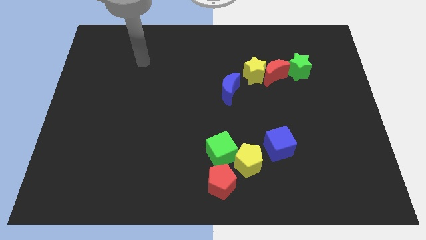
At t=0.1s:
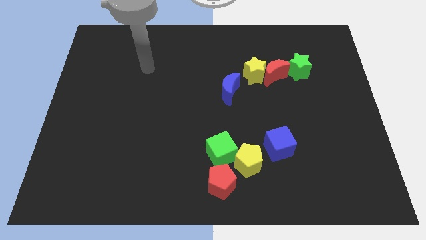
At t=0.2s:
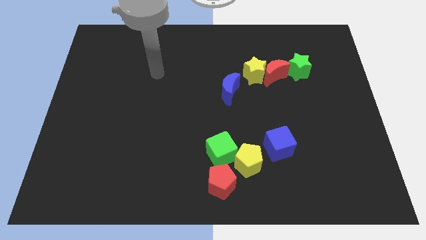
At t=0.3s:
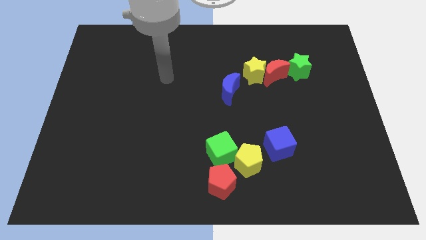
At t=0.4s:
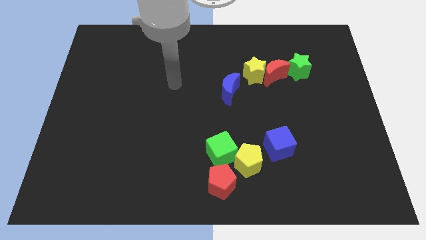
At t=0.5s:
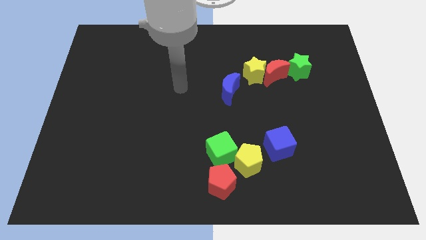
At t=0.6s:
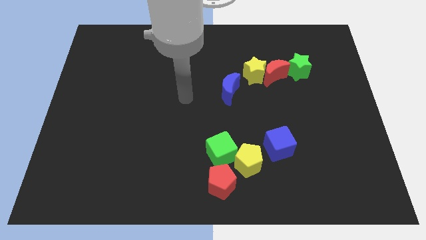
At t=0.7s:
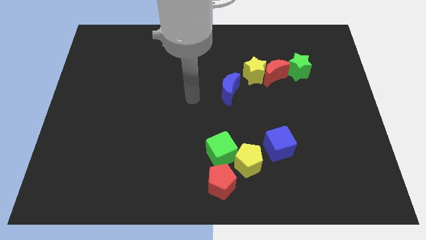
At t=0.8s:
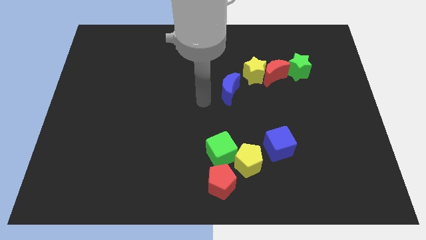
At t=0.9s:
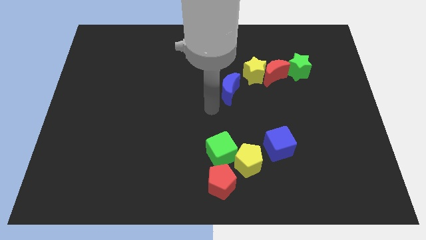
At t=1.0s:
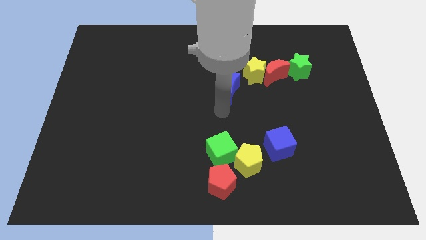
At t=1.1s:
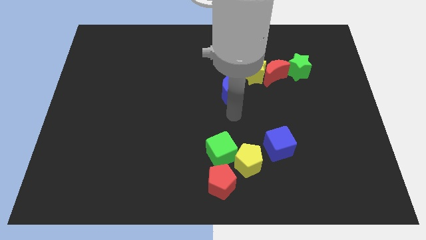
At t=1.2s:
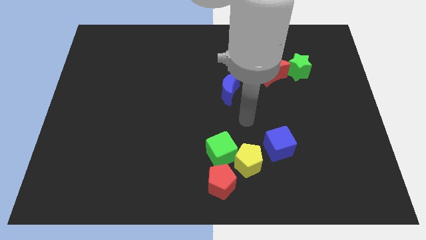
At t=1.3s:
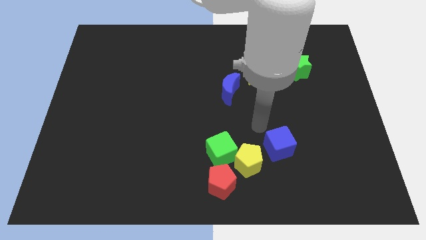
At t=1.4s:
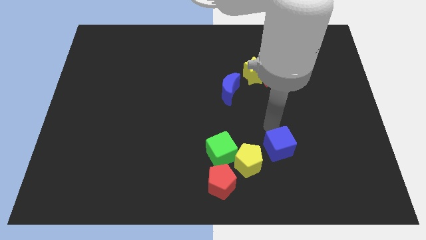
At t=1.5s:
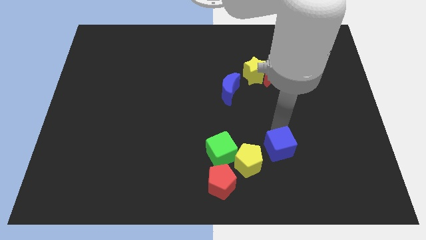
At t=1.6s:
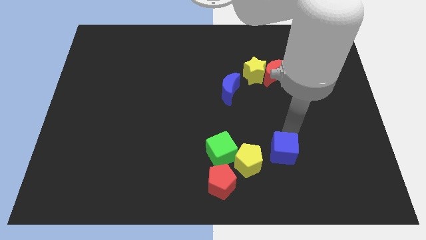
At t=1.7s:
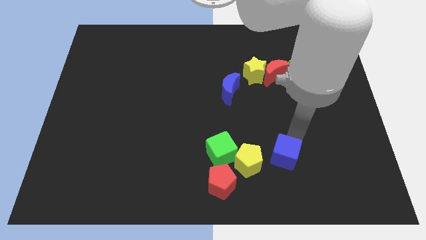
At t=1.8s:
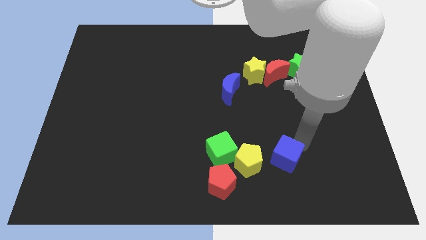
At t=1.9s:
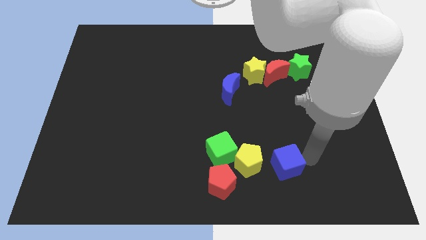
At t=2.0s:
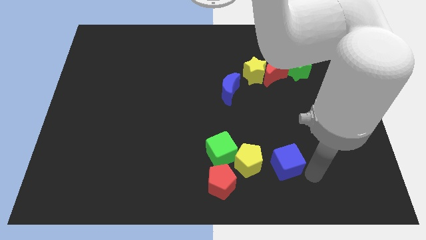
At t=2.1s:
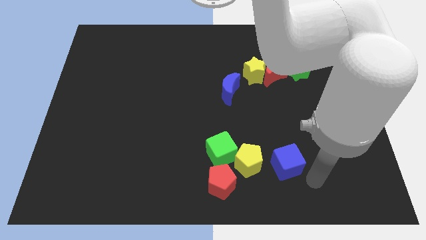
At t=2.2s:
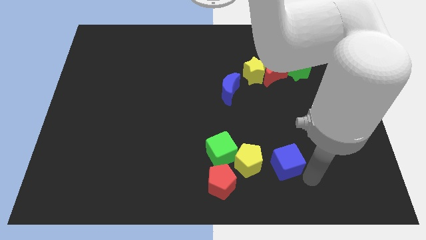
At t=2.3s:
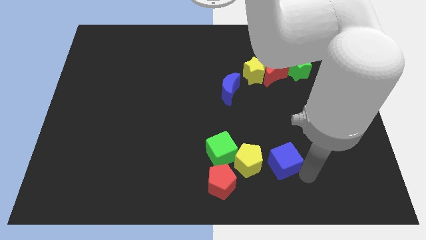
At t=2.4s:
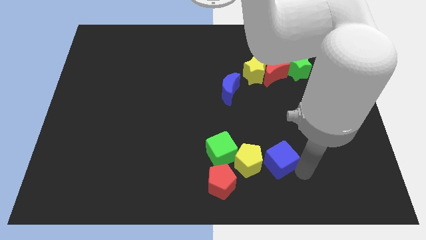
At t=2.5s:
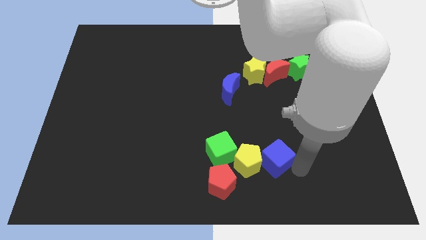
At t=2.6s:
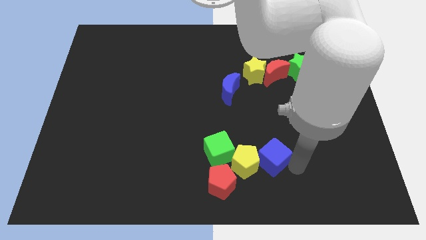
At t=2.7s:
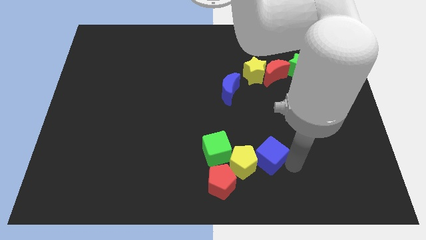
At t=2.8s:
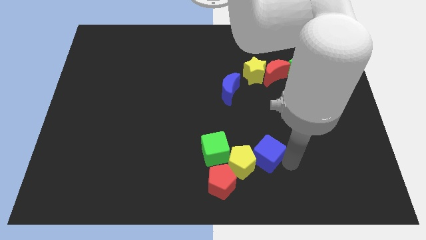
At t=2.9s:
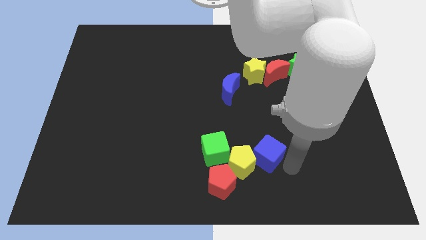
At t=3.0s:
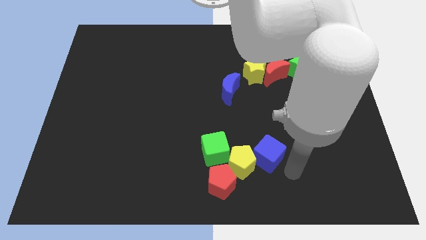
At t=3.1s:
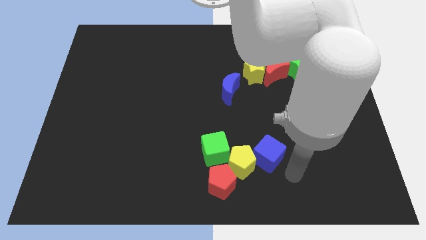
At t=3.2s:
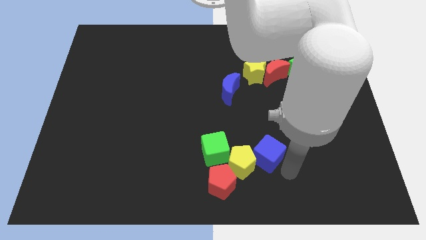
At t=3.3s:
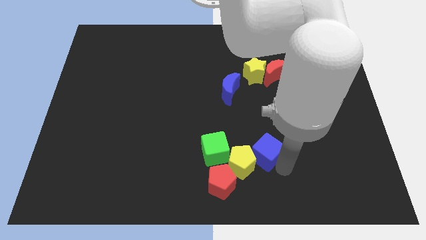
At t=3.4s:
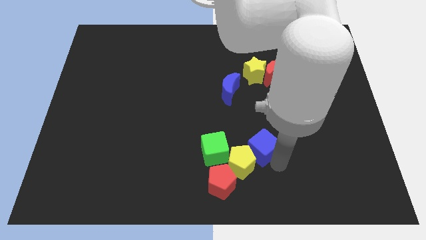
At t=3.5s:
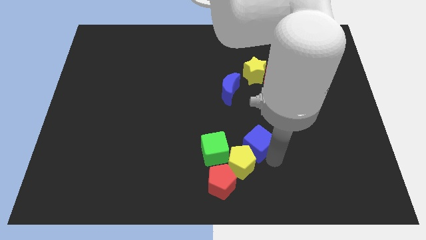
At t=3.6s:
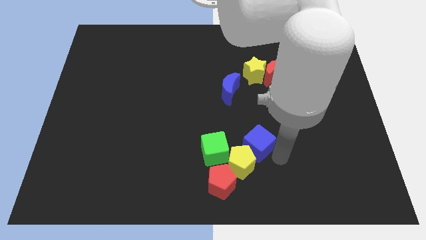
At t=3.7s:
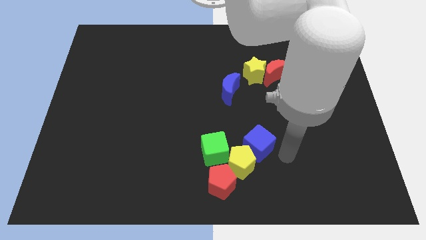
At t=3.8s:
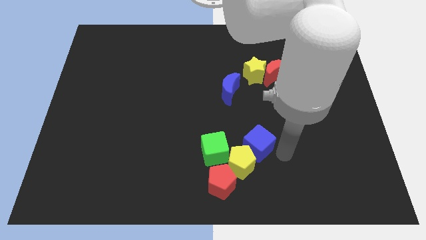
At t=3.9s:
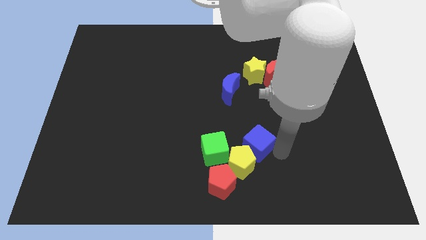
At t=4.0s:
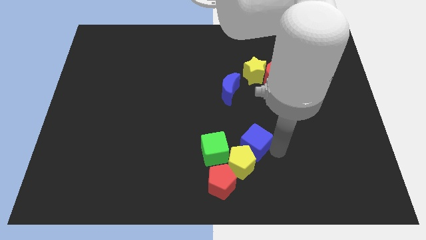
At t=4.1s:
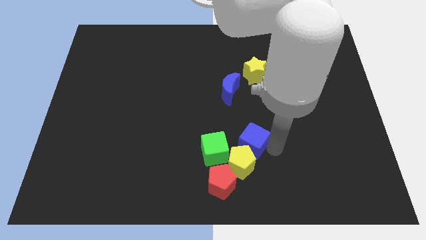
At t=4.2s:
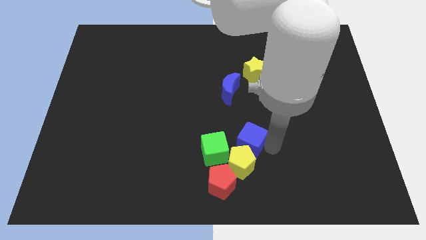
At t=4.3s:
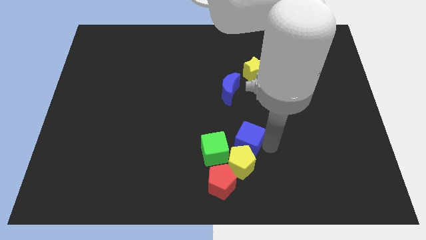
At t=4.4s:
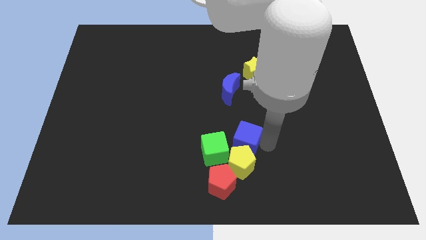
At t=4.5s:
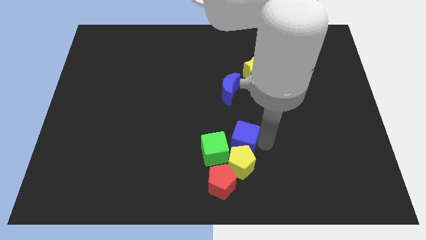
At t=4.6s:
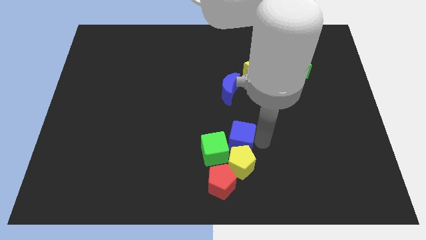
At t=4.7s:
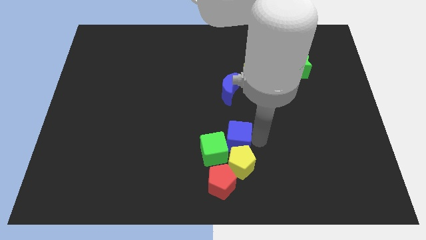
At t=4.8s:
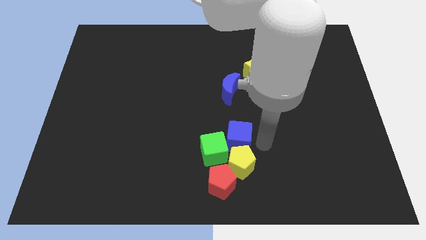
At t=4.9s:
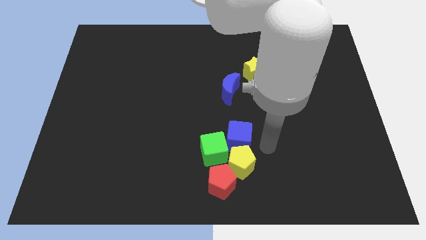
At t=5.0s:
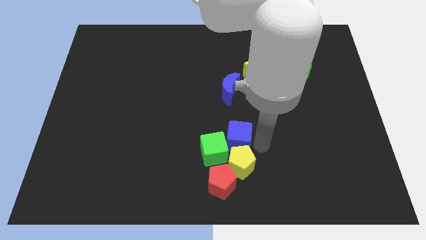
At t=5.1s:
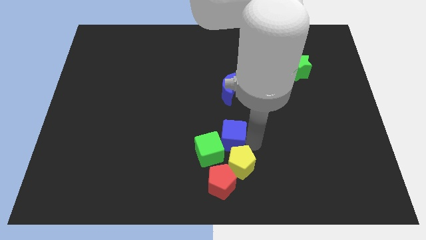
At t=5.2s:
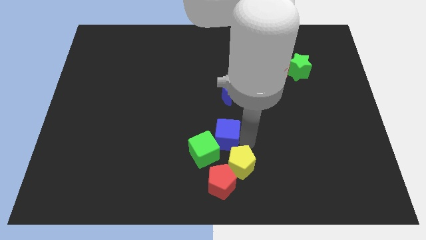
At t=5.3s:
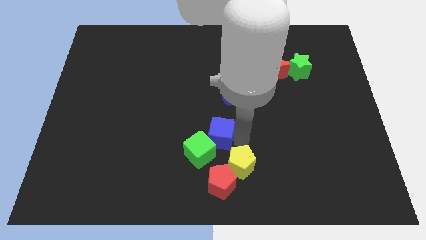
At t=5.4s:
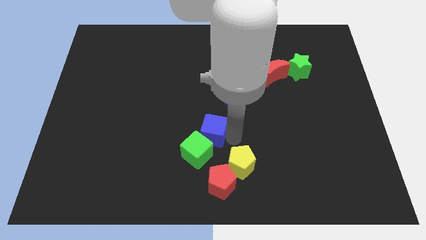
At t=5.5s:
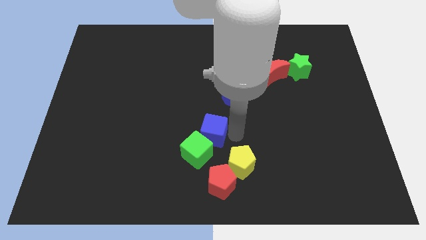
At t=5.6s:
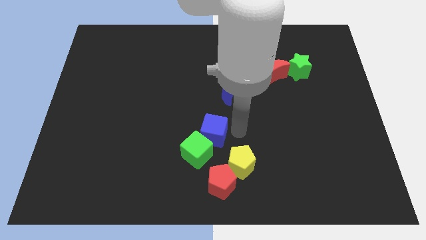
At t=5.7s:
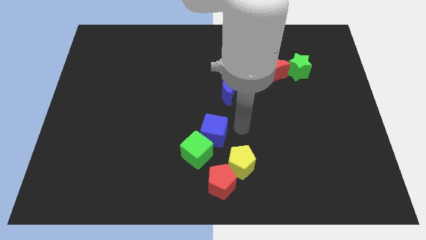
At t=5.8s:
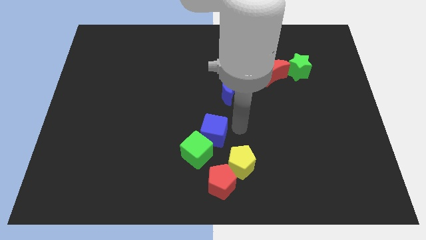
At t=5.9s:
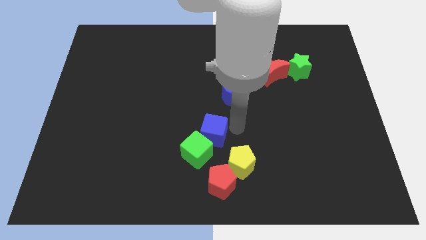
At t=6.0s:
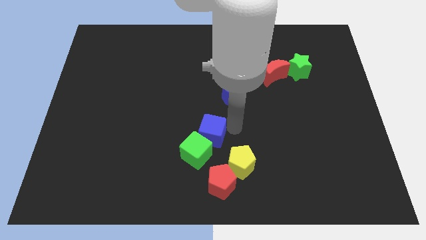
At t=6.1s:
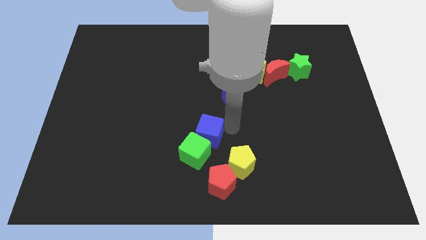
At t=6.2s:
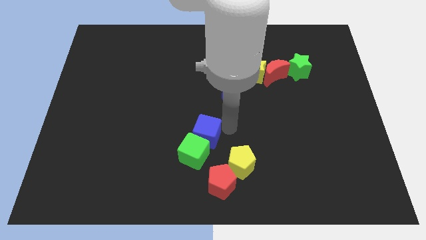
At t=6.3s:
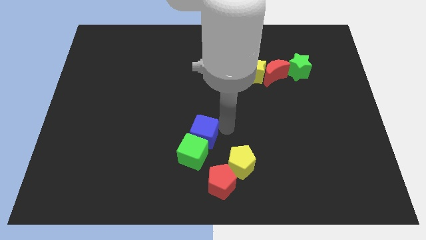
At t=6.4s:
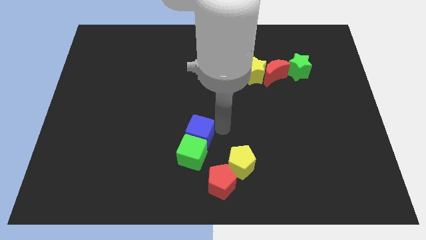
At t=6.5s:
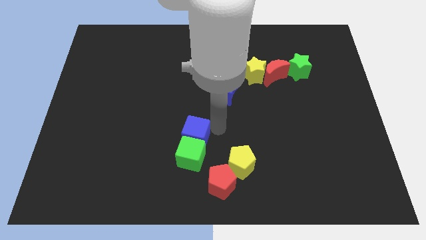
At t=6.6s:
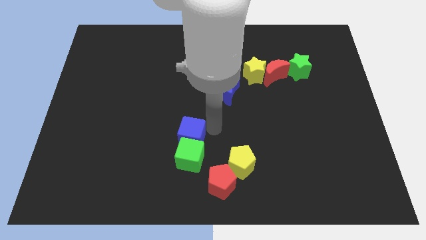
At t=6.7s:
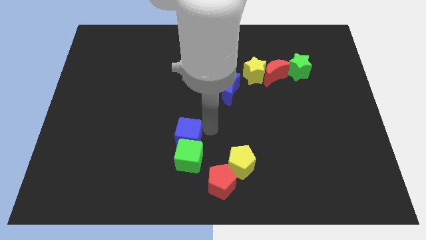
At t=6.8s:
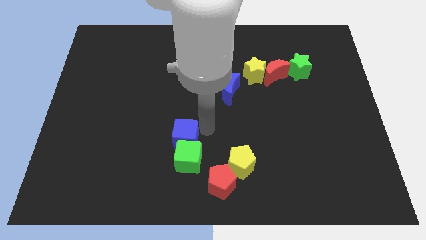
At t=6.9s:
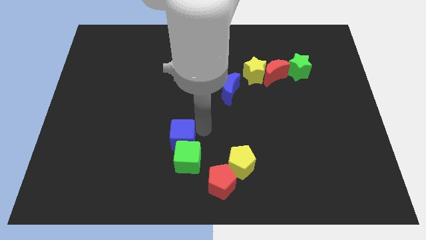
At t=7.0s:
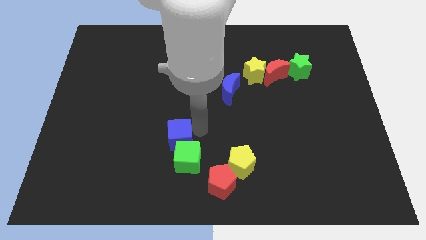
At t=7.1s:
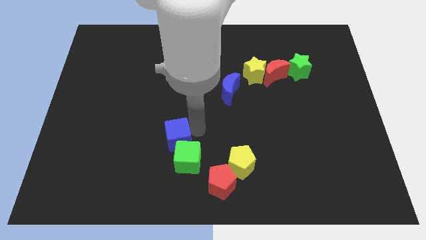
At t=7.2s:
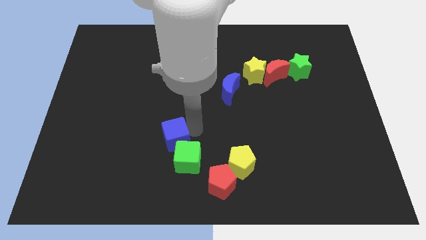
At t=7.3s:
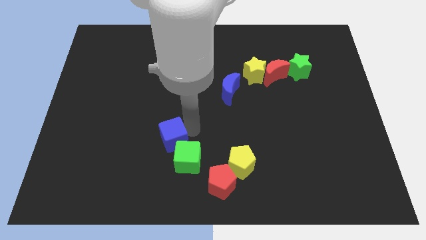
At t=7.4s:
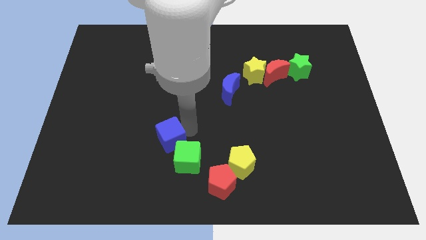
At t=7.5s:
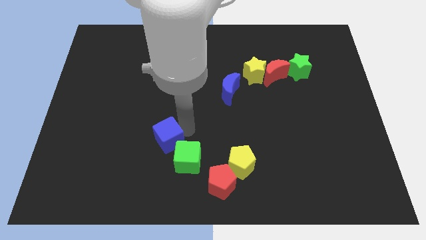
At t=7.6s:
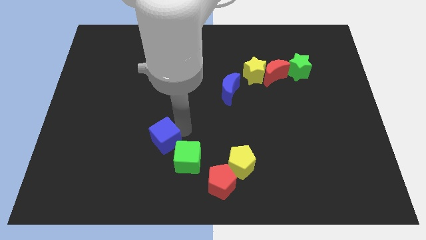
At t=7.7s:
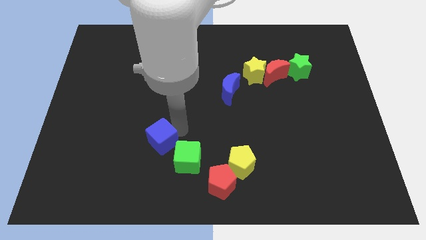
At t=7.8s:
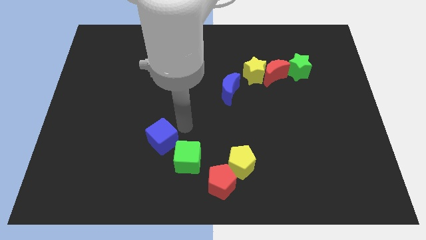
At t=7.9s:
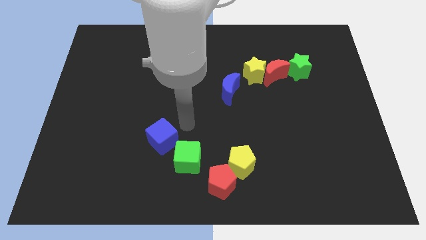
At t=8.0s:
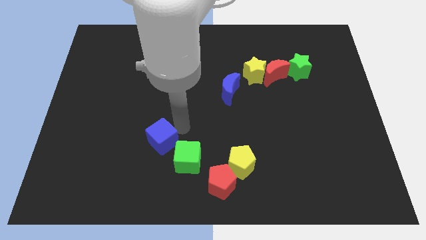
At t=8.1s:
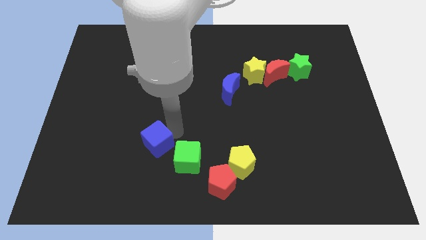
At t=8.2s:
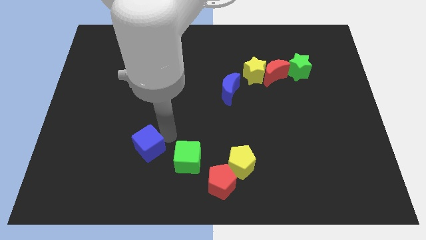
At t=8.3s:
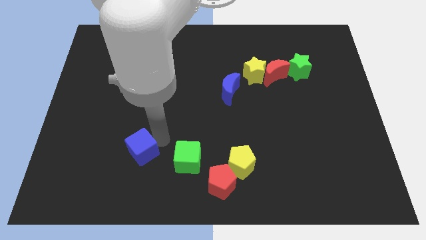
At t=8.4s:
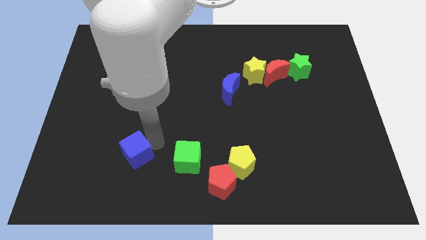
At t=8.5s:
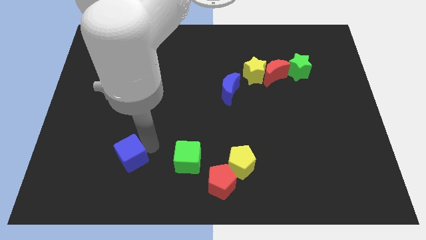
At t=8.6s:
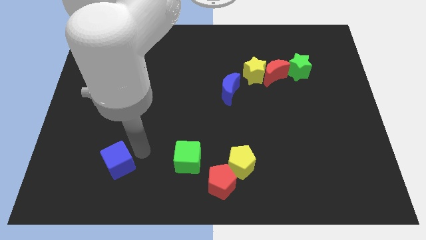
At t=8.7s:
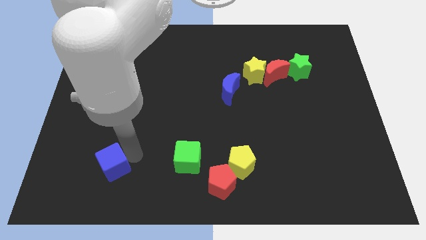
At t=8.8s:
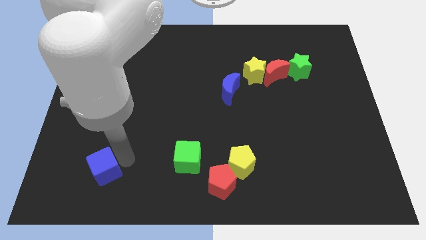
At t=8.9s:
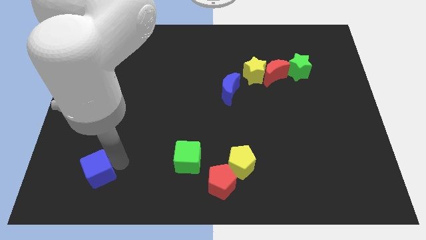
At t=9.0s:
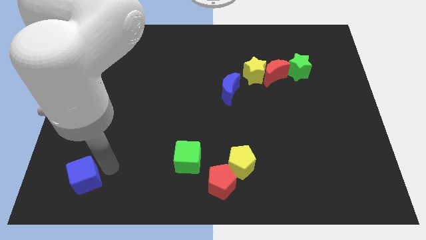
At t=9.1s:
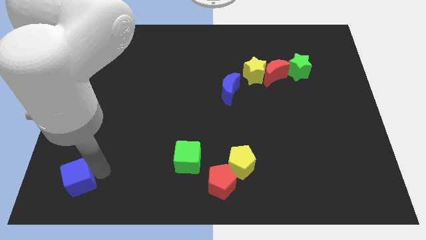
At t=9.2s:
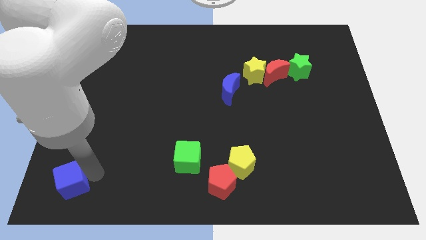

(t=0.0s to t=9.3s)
push the blue cube to the bottom left corner
